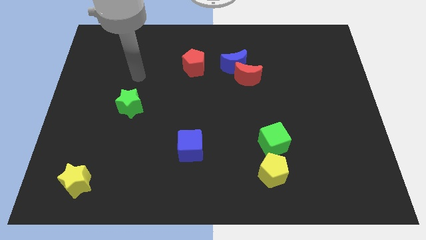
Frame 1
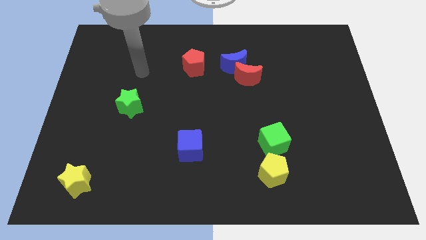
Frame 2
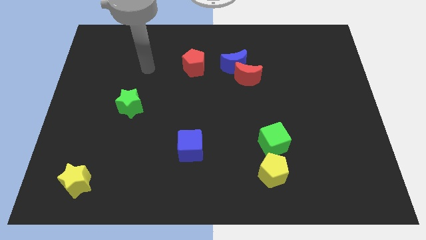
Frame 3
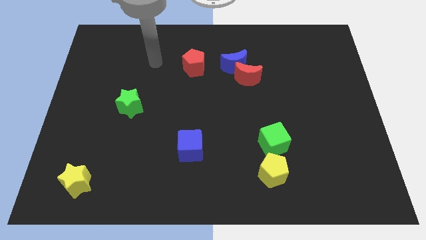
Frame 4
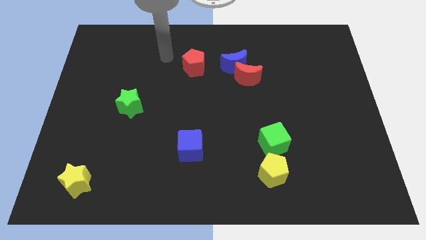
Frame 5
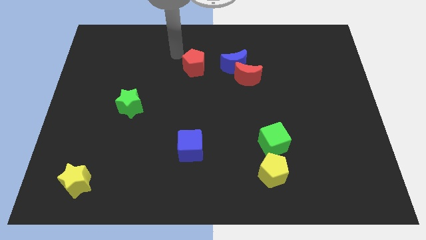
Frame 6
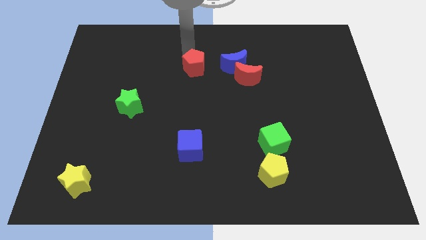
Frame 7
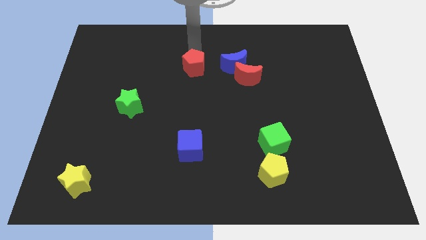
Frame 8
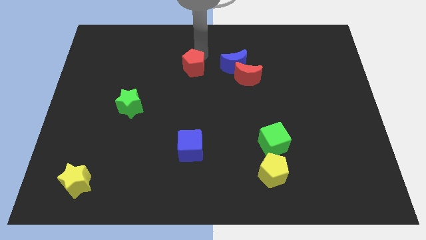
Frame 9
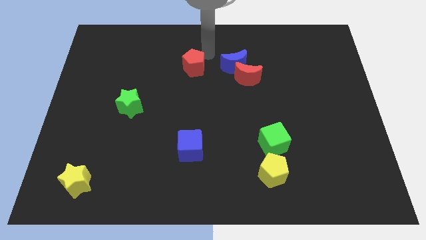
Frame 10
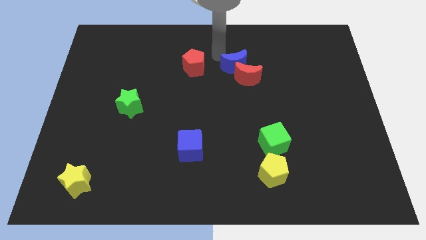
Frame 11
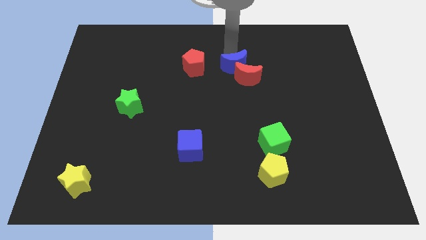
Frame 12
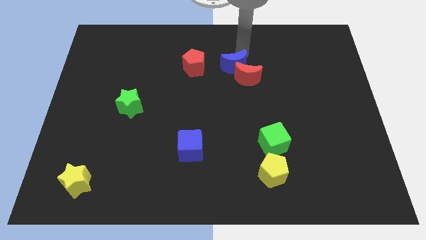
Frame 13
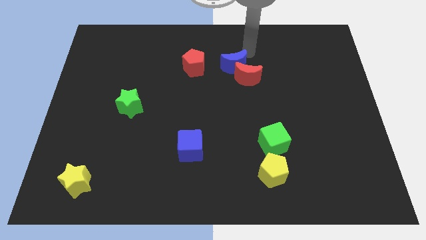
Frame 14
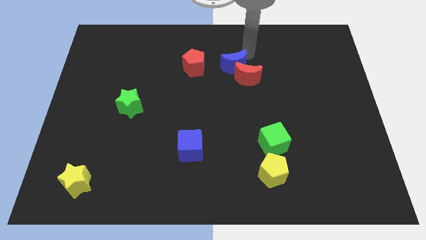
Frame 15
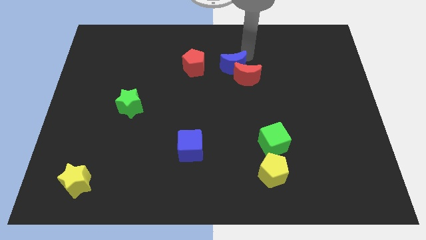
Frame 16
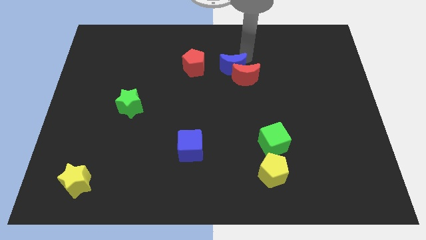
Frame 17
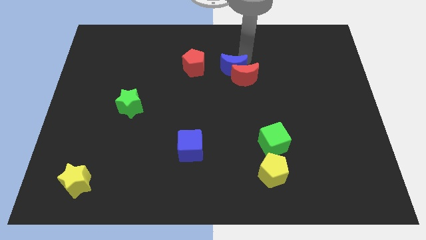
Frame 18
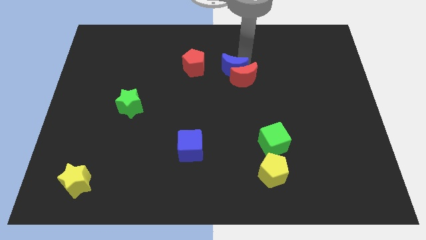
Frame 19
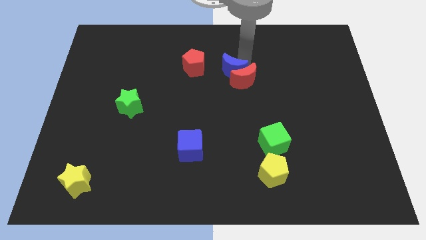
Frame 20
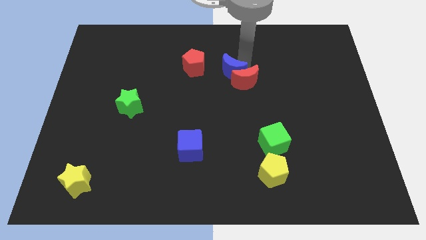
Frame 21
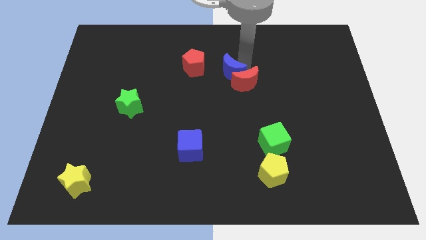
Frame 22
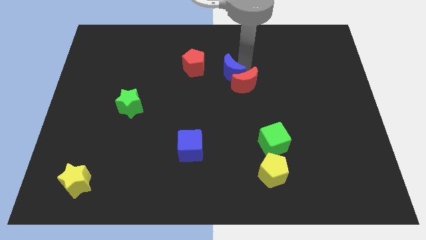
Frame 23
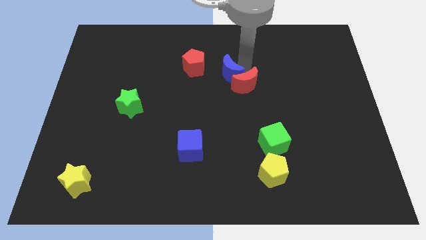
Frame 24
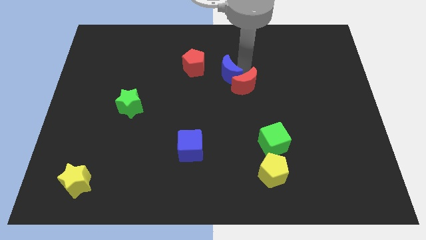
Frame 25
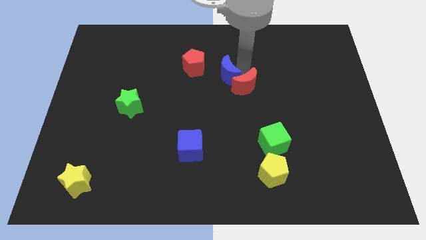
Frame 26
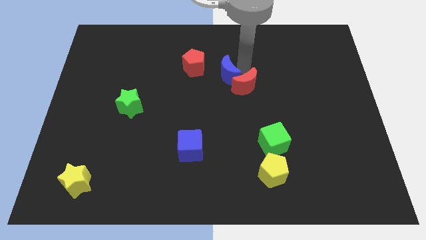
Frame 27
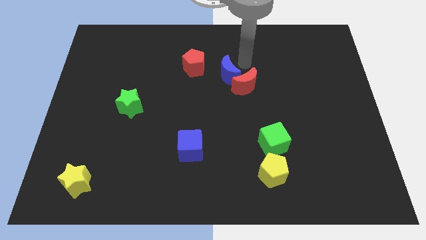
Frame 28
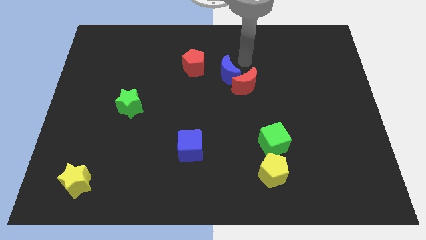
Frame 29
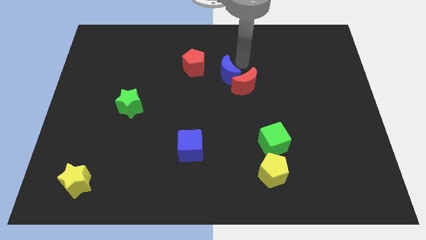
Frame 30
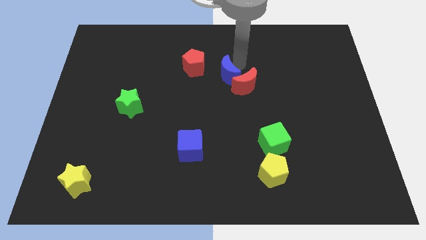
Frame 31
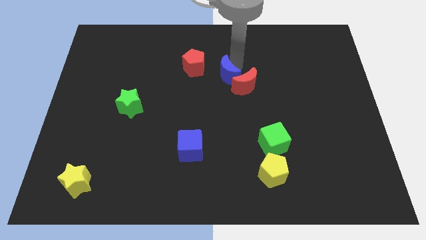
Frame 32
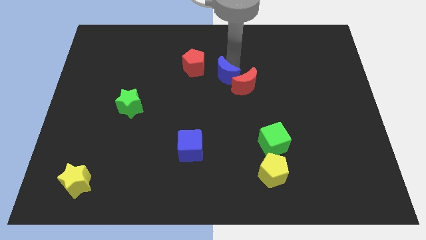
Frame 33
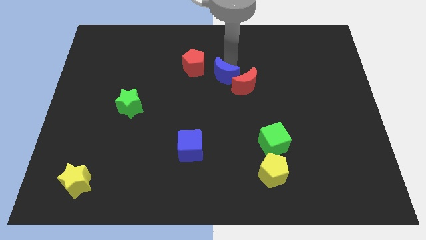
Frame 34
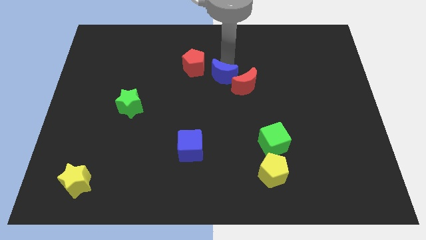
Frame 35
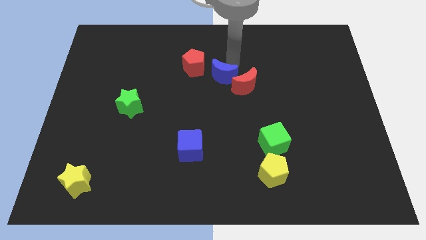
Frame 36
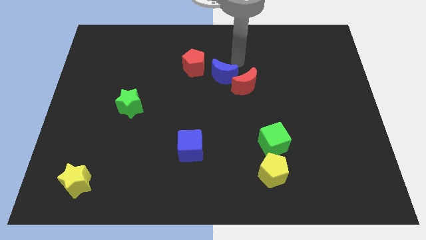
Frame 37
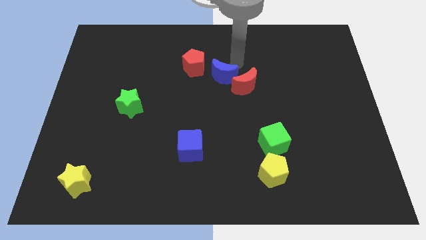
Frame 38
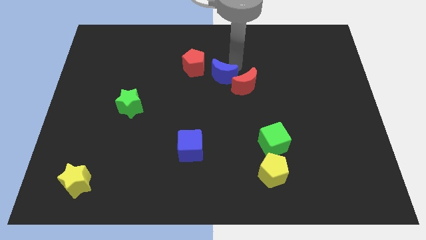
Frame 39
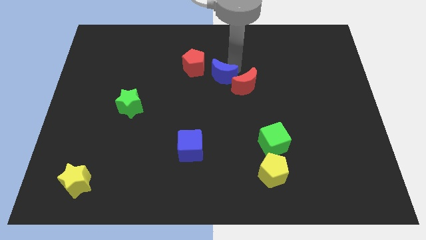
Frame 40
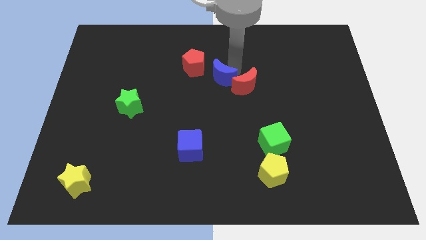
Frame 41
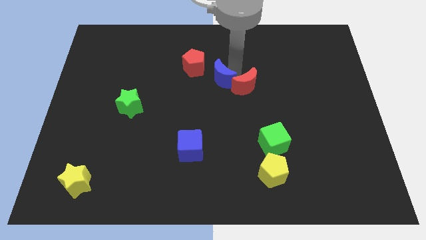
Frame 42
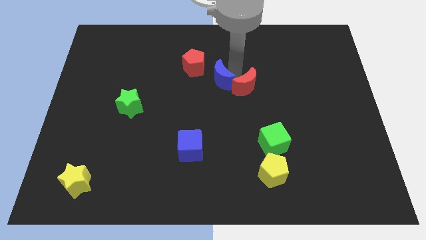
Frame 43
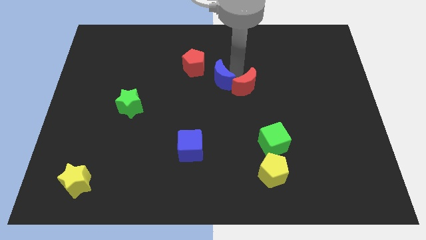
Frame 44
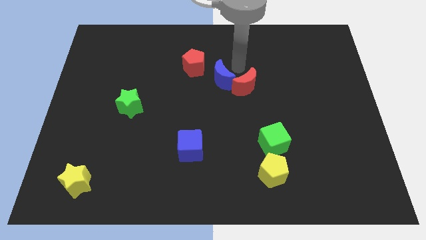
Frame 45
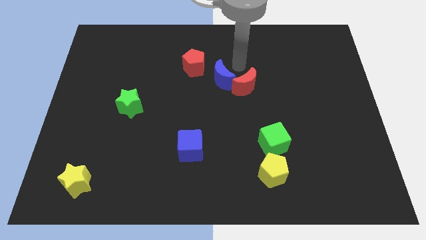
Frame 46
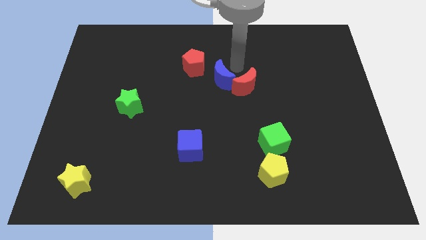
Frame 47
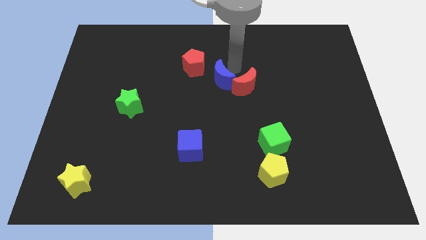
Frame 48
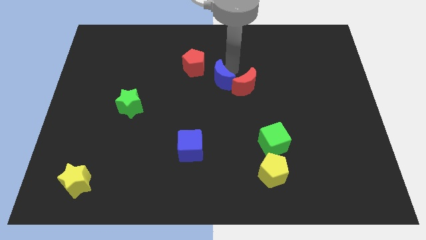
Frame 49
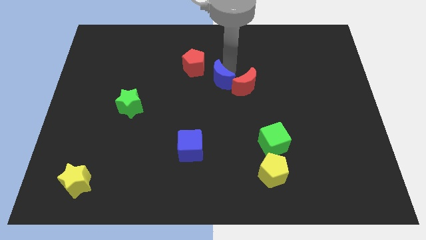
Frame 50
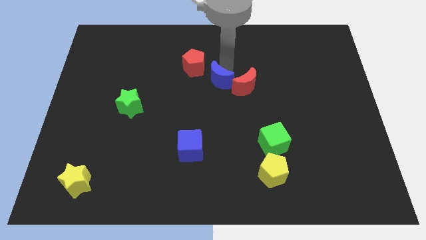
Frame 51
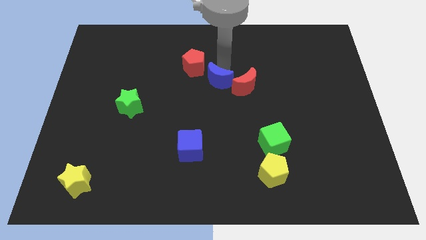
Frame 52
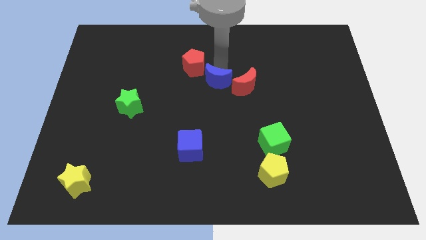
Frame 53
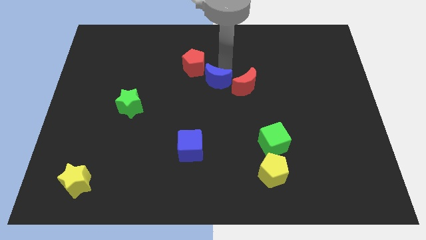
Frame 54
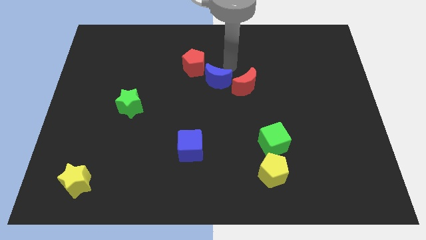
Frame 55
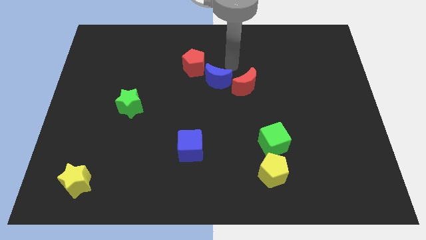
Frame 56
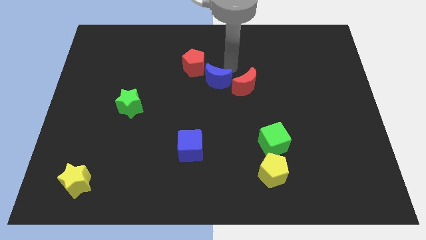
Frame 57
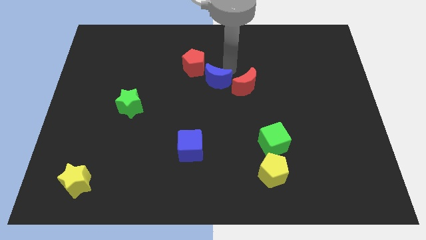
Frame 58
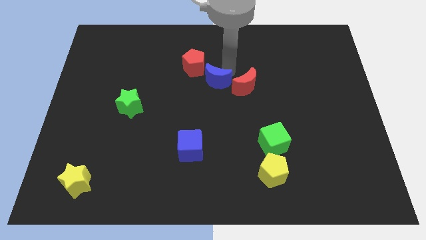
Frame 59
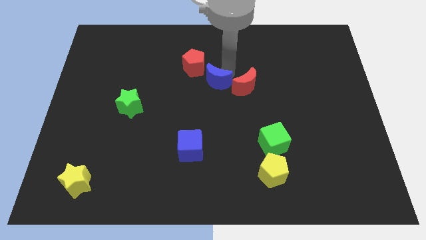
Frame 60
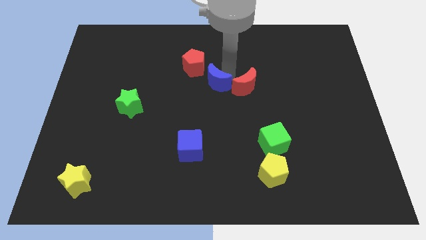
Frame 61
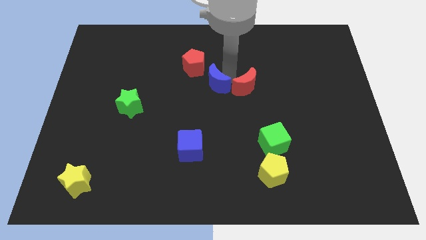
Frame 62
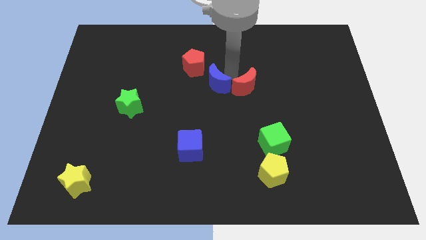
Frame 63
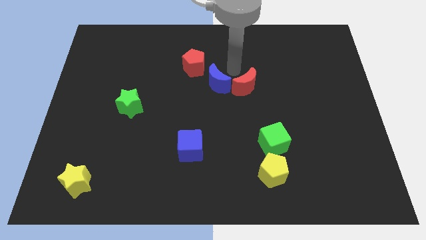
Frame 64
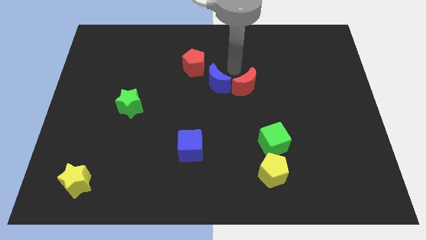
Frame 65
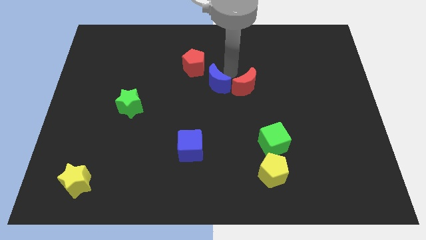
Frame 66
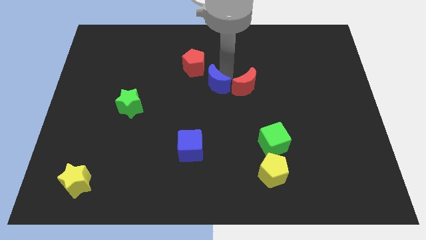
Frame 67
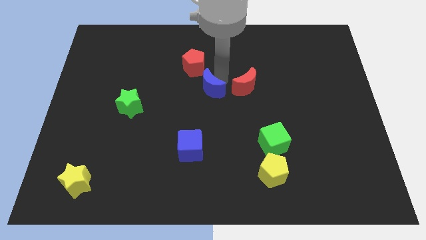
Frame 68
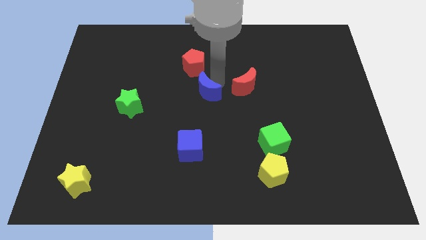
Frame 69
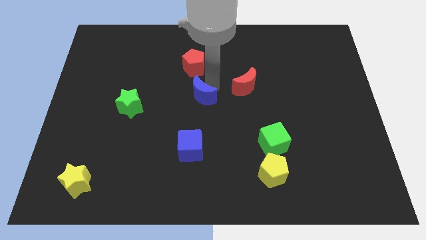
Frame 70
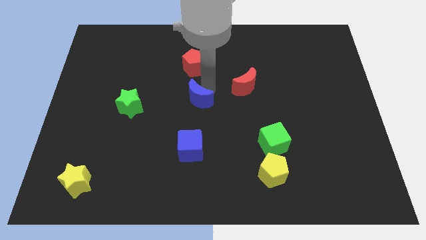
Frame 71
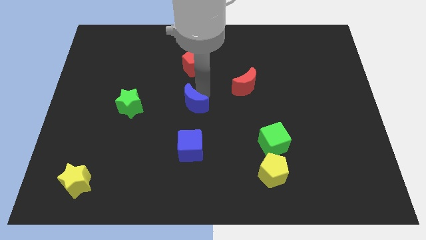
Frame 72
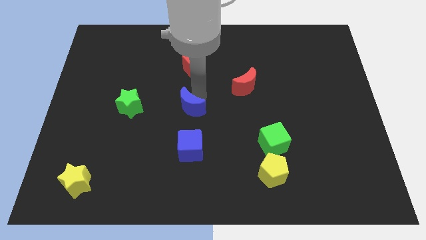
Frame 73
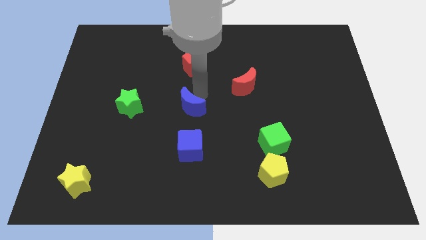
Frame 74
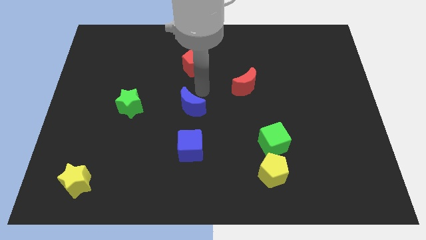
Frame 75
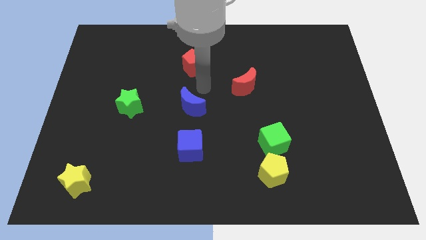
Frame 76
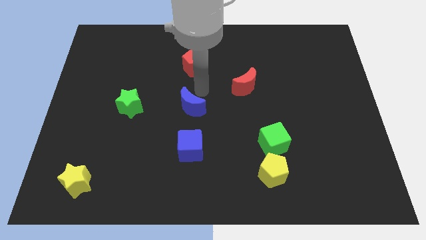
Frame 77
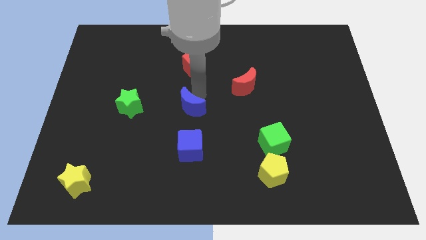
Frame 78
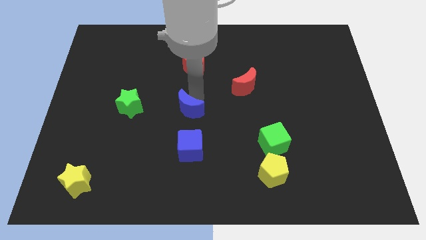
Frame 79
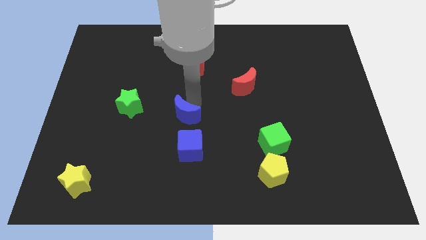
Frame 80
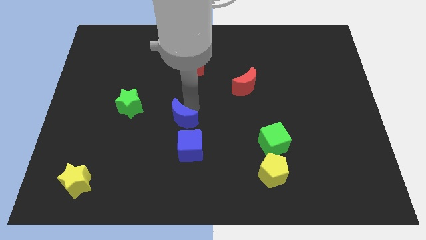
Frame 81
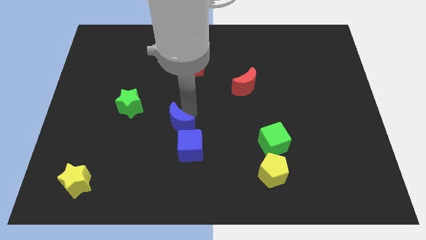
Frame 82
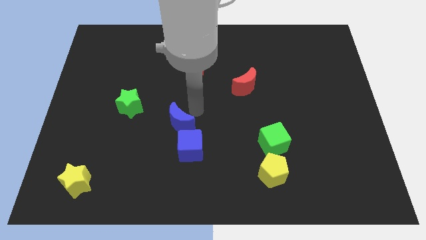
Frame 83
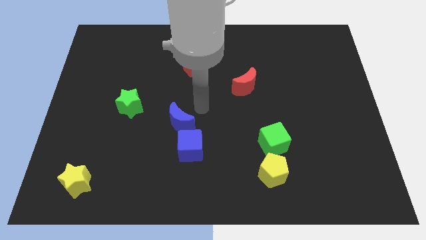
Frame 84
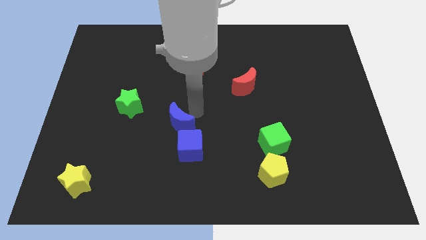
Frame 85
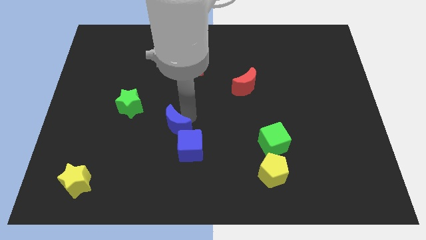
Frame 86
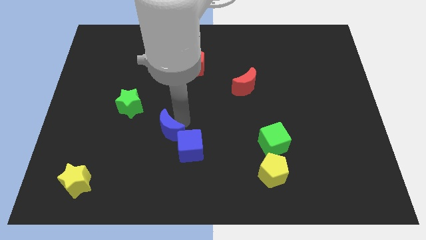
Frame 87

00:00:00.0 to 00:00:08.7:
slide the blue moon to the left of the blue cube
